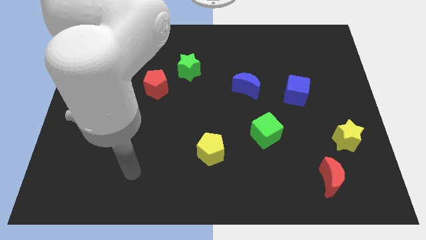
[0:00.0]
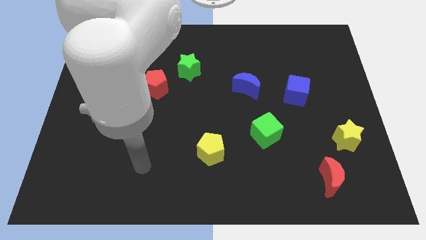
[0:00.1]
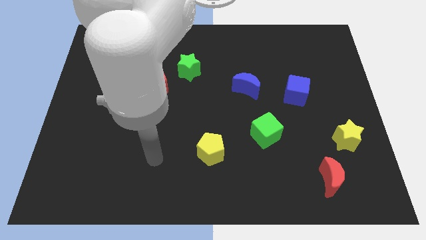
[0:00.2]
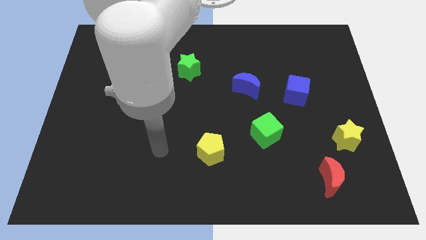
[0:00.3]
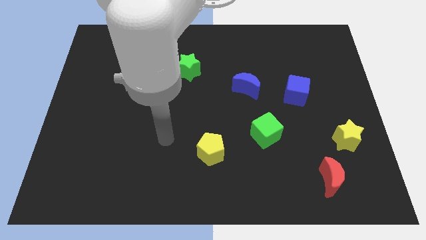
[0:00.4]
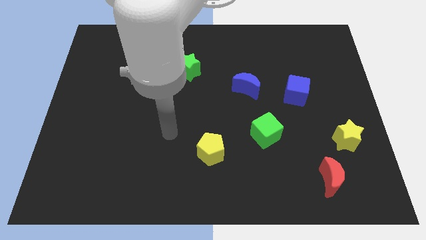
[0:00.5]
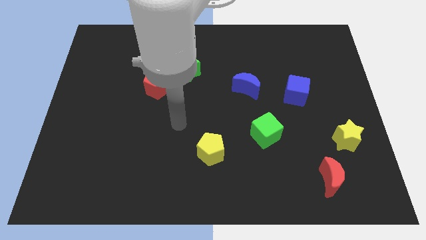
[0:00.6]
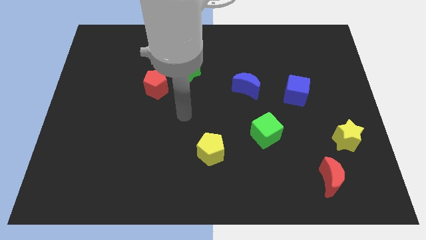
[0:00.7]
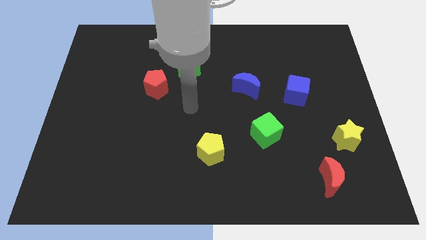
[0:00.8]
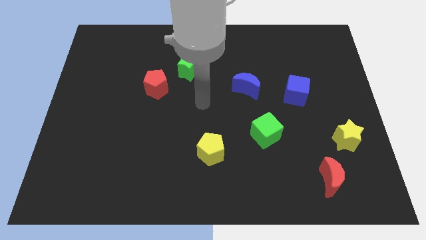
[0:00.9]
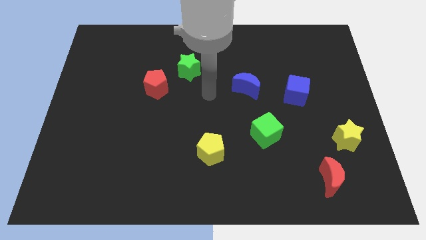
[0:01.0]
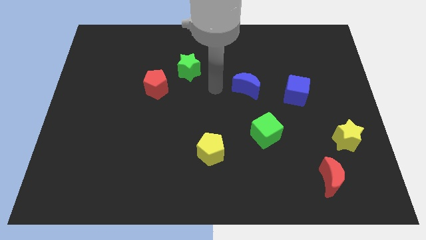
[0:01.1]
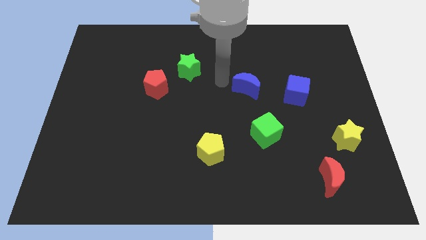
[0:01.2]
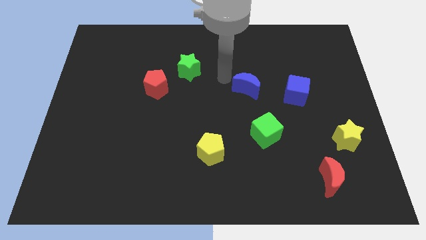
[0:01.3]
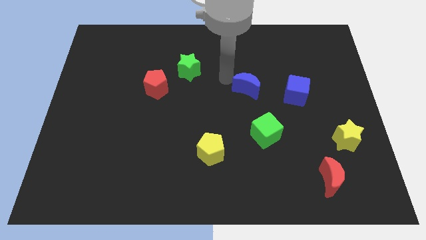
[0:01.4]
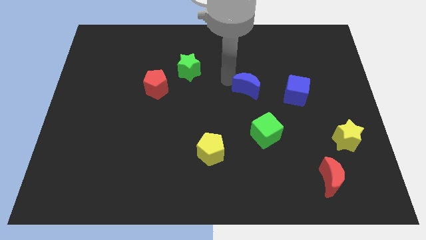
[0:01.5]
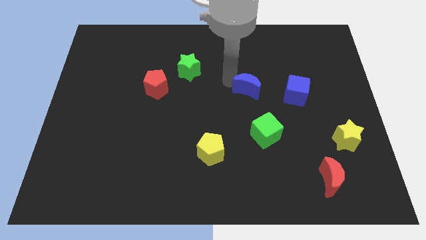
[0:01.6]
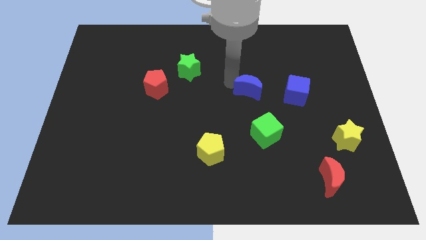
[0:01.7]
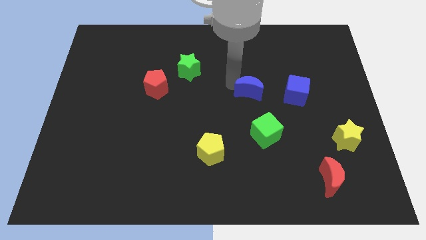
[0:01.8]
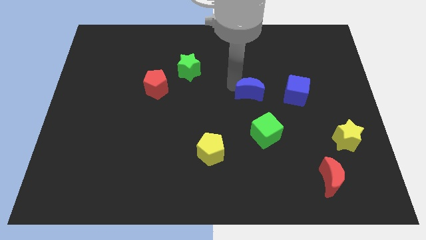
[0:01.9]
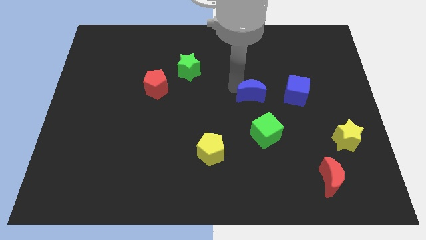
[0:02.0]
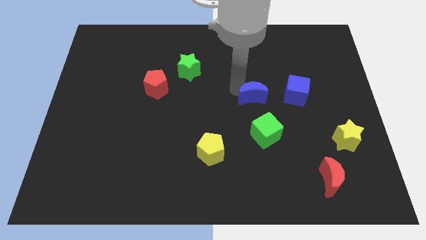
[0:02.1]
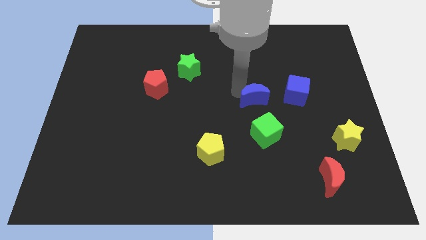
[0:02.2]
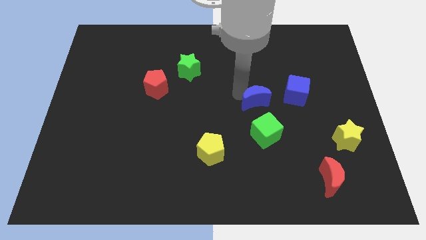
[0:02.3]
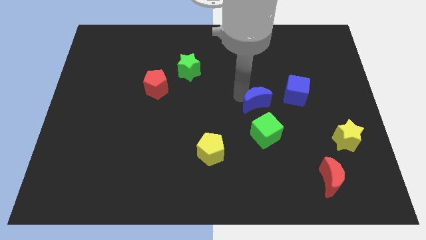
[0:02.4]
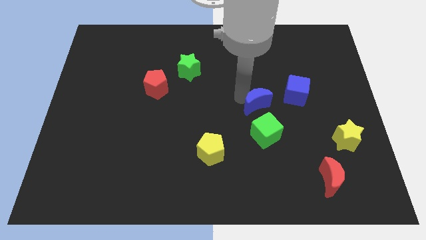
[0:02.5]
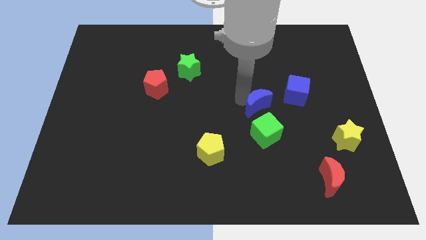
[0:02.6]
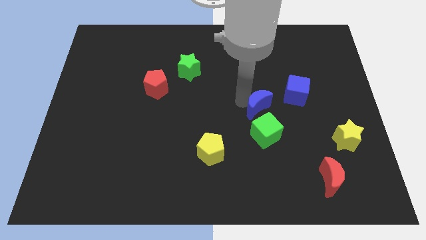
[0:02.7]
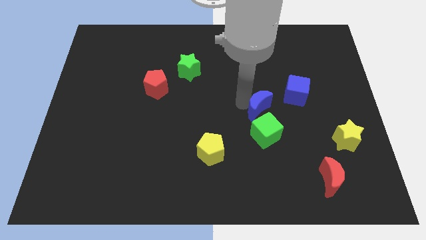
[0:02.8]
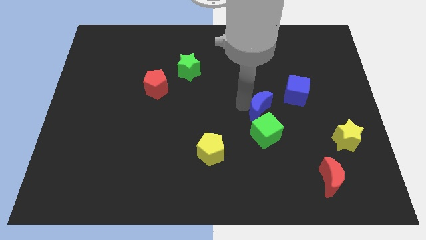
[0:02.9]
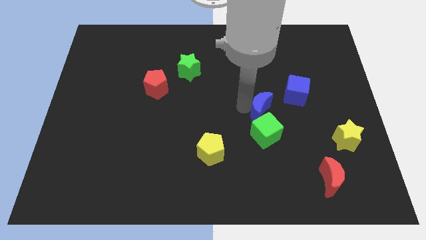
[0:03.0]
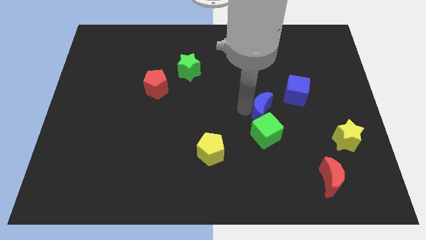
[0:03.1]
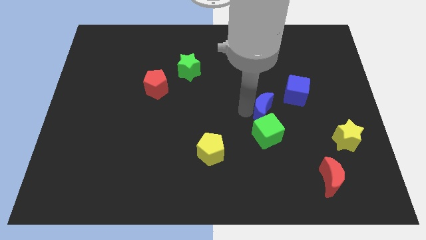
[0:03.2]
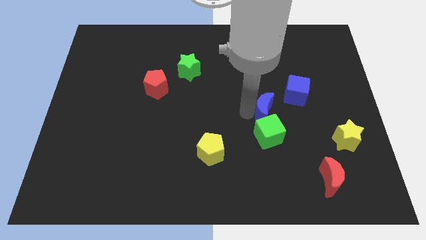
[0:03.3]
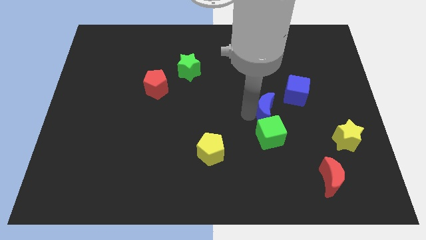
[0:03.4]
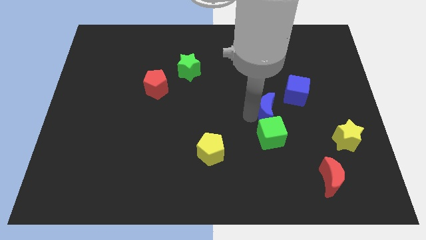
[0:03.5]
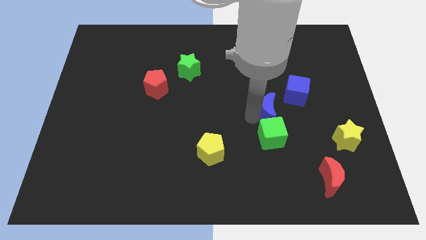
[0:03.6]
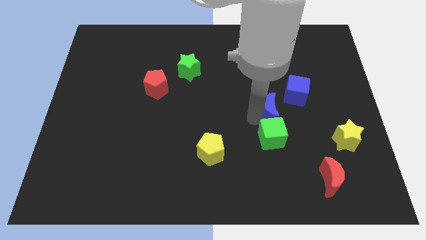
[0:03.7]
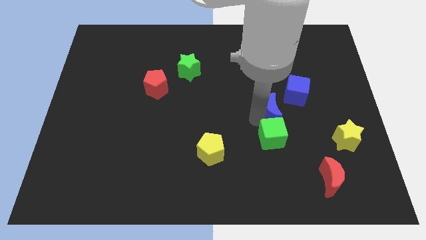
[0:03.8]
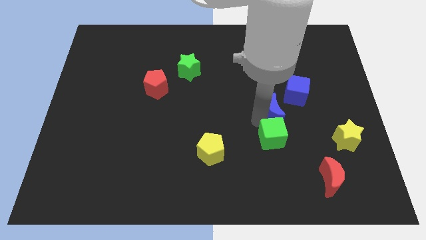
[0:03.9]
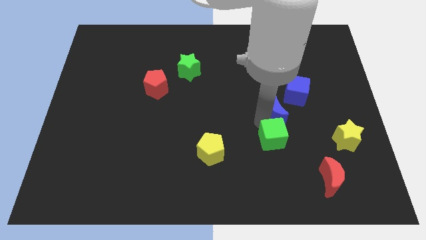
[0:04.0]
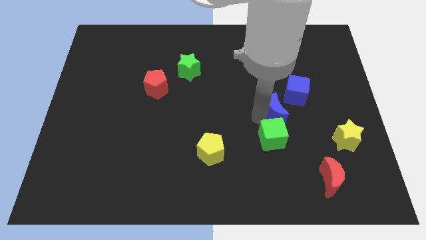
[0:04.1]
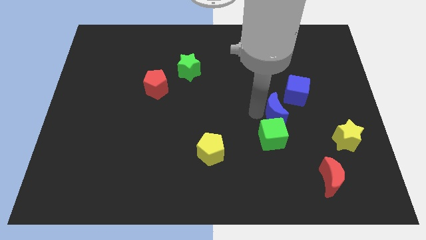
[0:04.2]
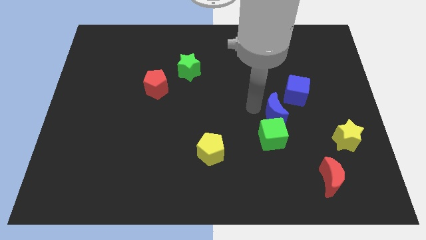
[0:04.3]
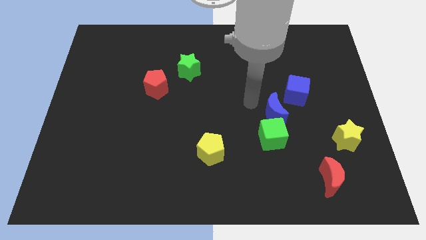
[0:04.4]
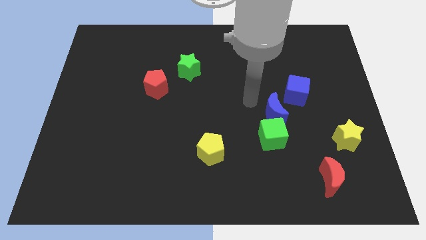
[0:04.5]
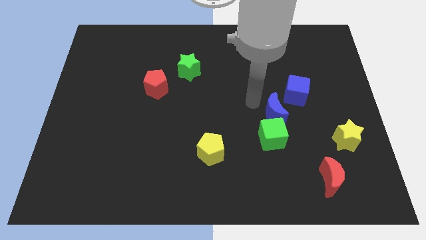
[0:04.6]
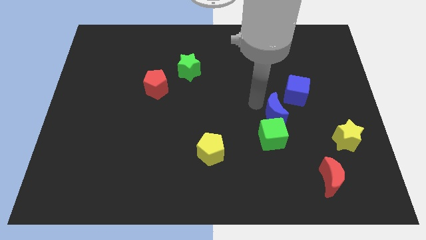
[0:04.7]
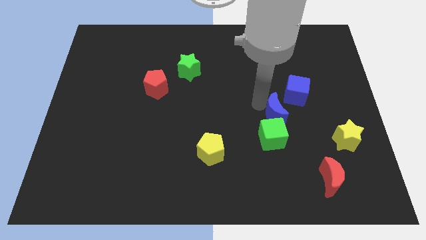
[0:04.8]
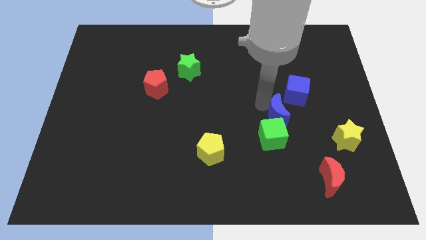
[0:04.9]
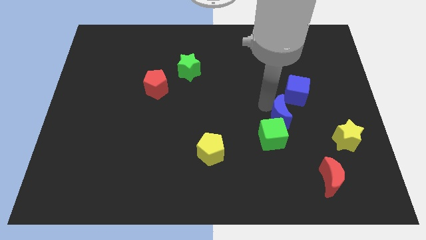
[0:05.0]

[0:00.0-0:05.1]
move the blue moon to the bottom side of the blue cube

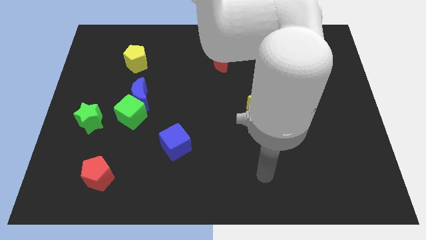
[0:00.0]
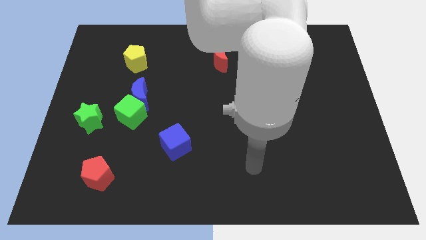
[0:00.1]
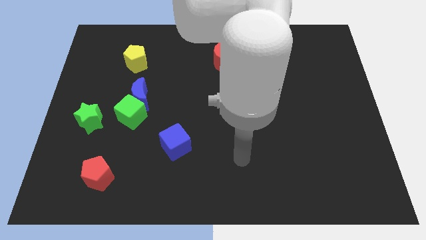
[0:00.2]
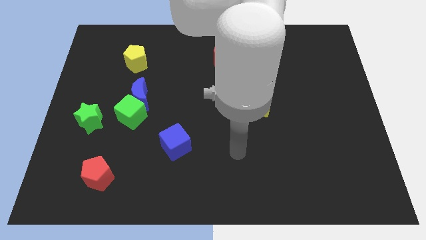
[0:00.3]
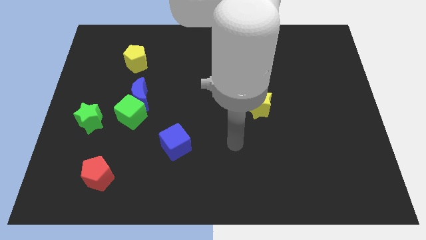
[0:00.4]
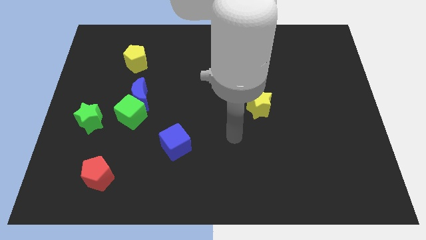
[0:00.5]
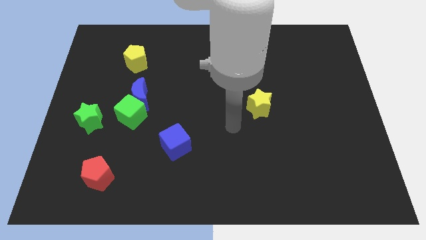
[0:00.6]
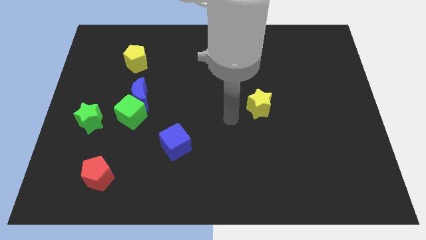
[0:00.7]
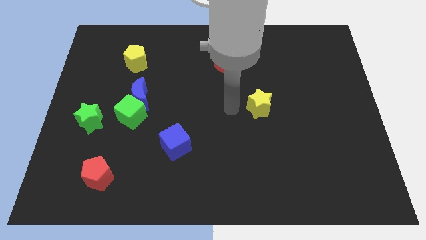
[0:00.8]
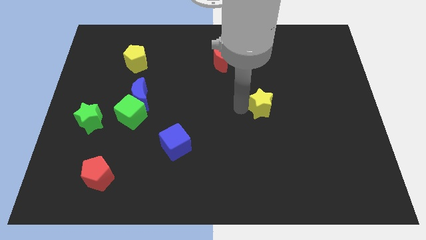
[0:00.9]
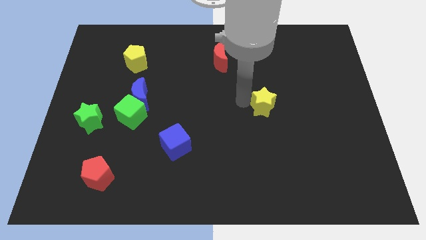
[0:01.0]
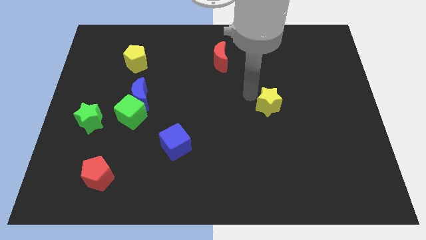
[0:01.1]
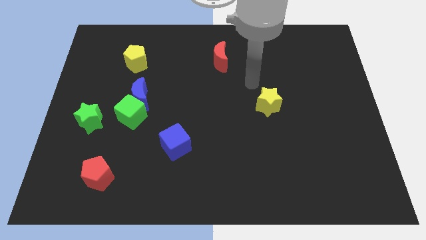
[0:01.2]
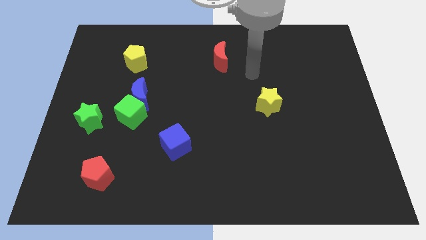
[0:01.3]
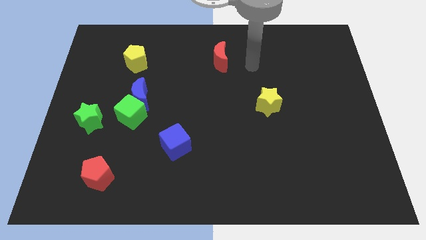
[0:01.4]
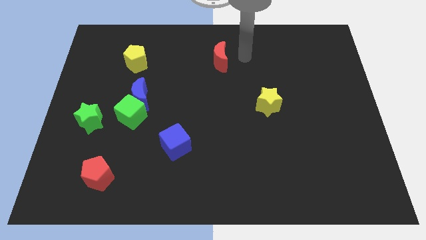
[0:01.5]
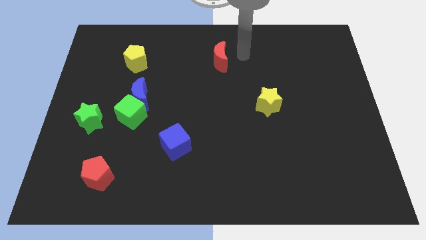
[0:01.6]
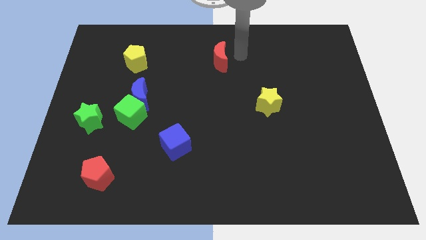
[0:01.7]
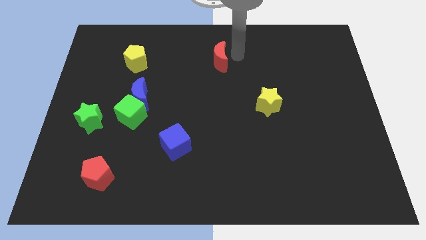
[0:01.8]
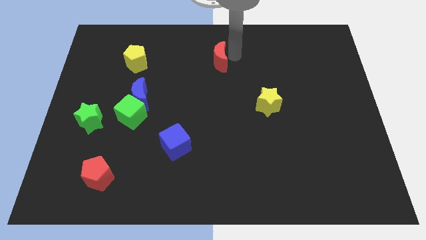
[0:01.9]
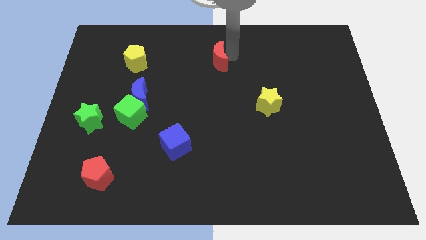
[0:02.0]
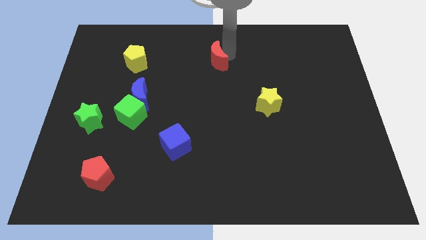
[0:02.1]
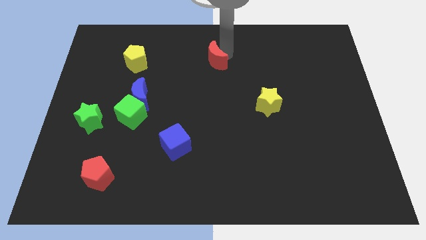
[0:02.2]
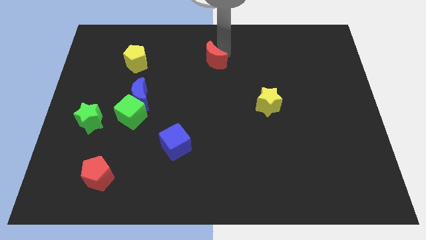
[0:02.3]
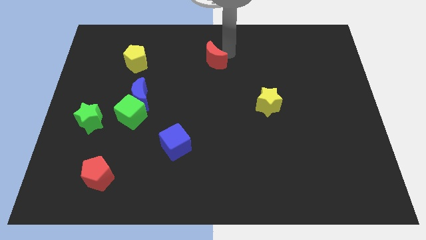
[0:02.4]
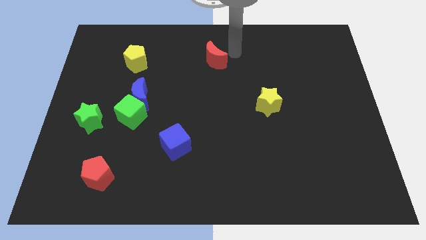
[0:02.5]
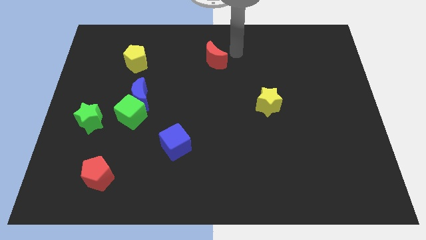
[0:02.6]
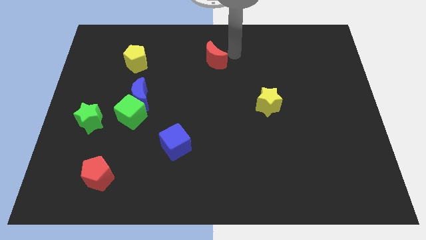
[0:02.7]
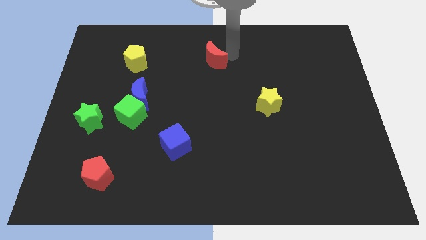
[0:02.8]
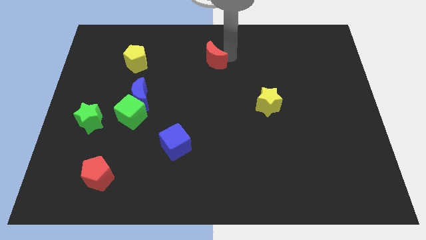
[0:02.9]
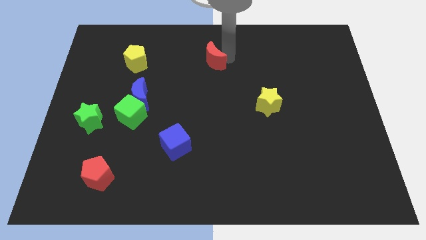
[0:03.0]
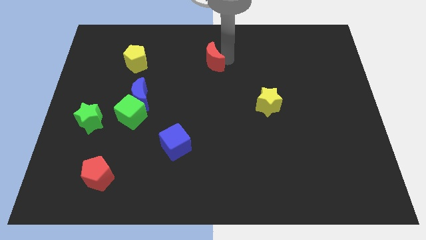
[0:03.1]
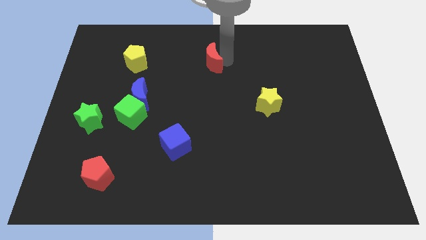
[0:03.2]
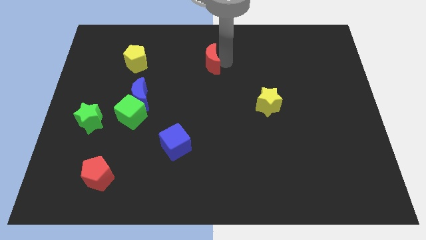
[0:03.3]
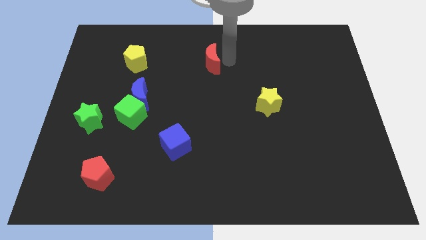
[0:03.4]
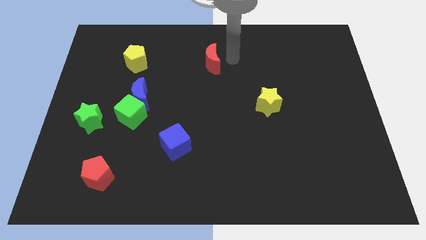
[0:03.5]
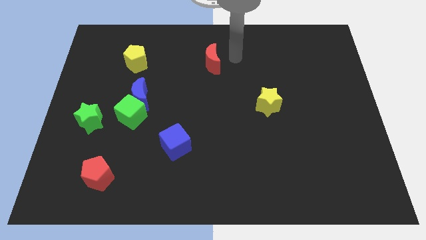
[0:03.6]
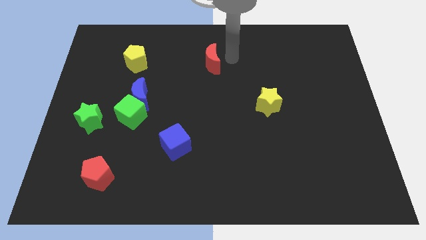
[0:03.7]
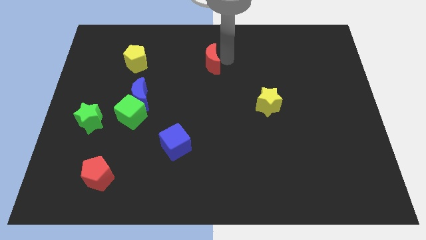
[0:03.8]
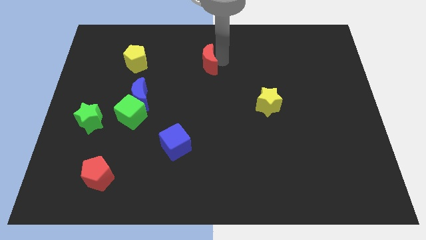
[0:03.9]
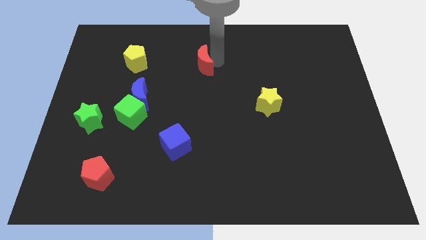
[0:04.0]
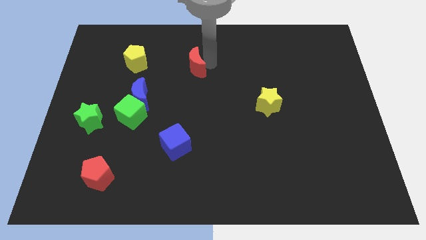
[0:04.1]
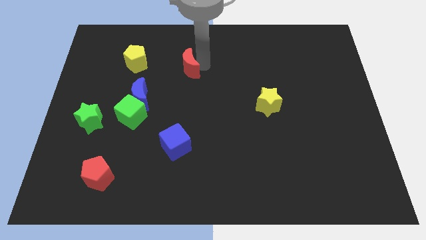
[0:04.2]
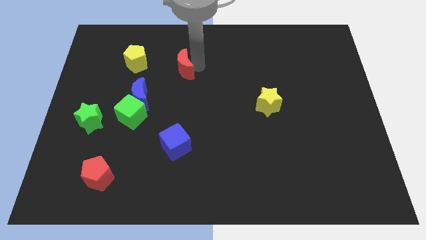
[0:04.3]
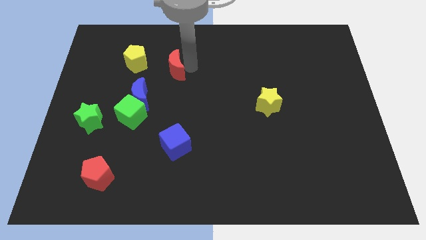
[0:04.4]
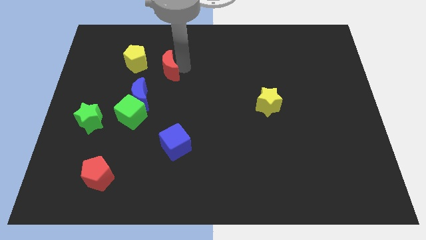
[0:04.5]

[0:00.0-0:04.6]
slide the red moon to the bottom right side of the yellow pentagon
